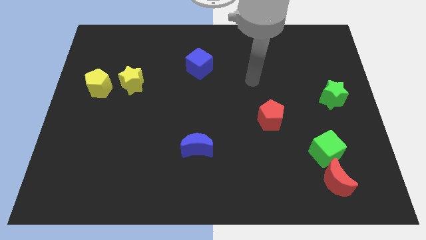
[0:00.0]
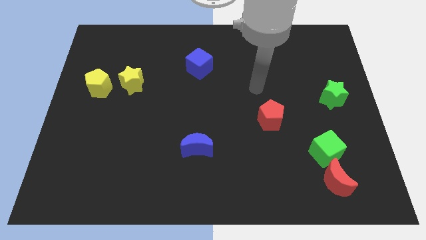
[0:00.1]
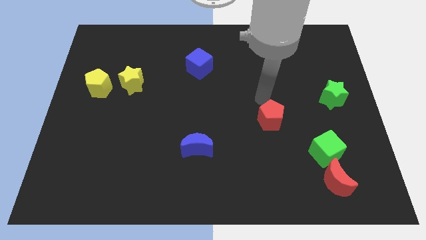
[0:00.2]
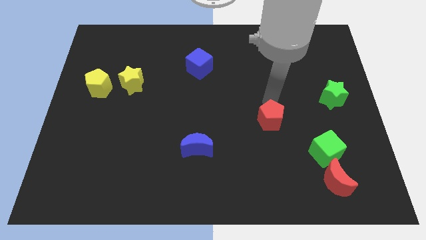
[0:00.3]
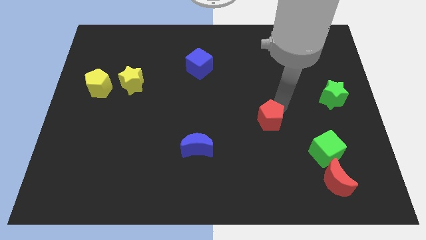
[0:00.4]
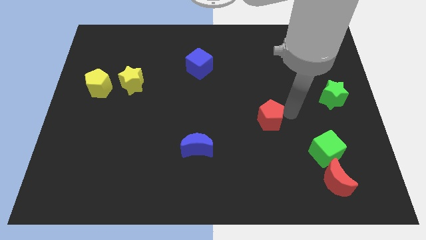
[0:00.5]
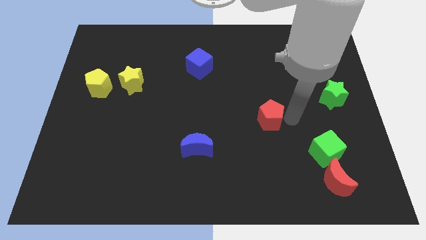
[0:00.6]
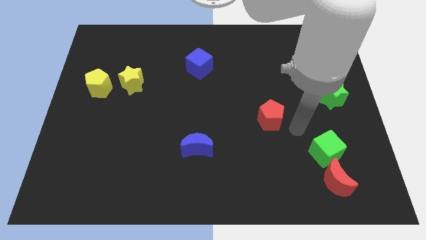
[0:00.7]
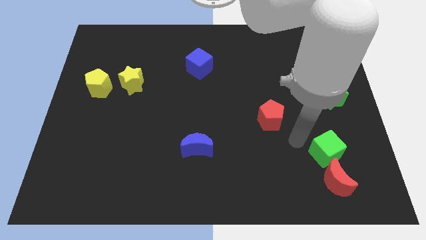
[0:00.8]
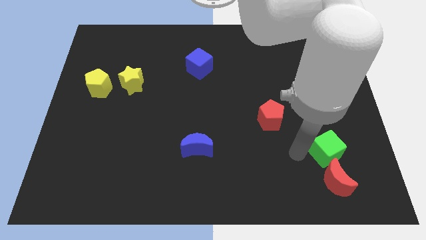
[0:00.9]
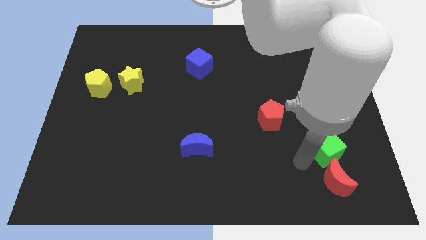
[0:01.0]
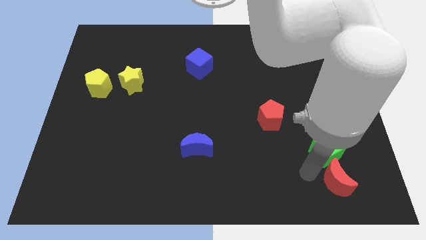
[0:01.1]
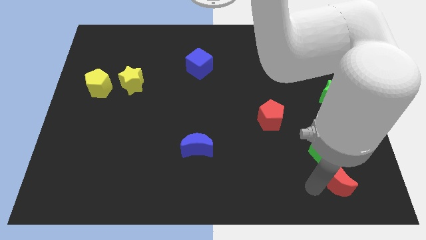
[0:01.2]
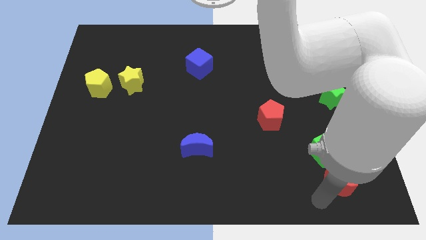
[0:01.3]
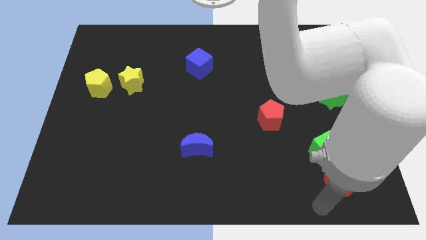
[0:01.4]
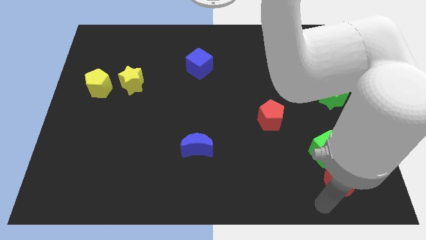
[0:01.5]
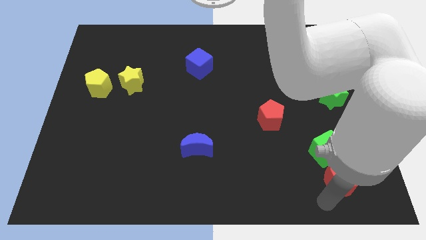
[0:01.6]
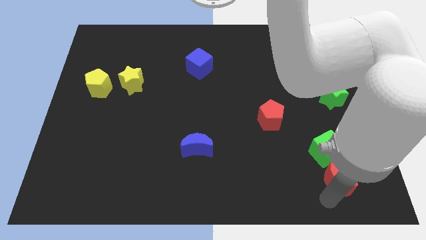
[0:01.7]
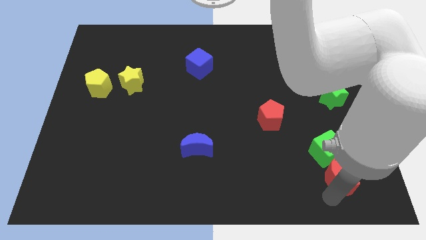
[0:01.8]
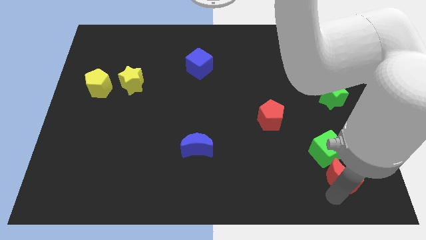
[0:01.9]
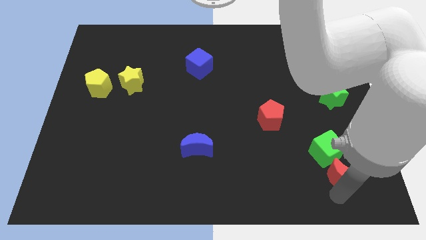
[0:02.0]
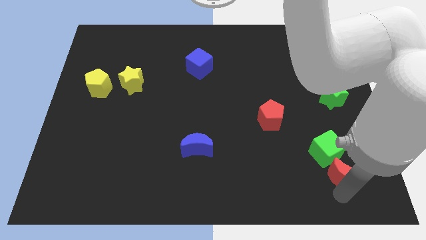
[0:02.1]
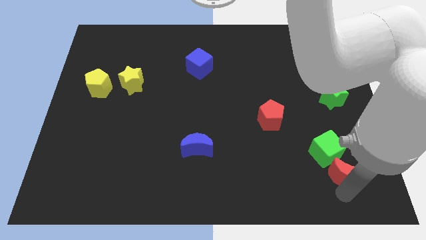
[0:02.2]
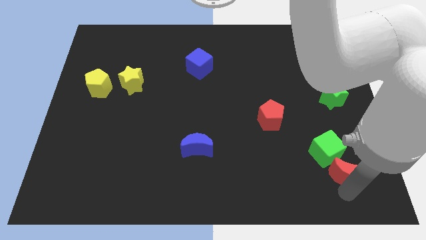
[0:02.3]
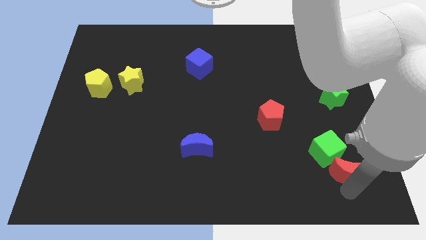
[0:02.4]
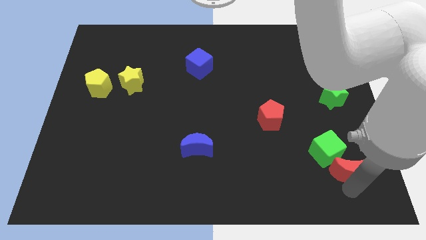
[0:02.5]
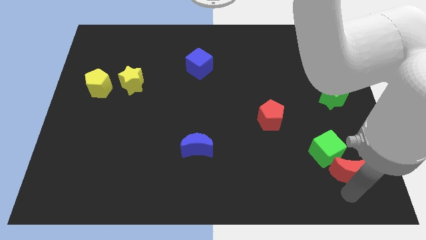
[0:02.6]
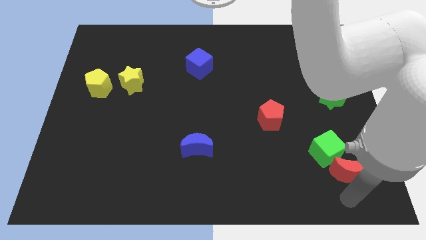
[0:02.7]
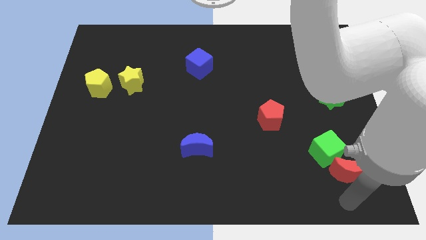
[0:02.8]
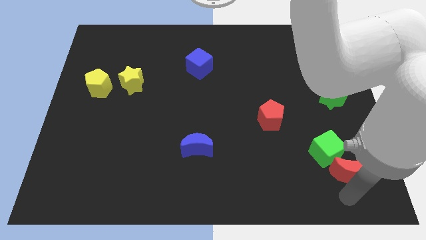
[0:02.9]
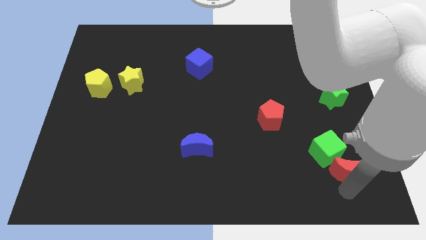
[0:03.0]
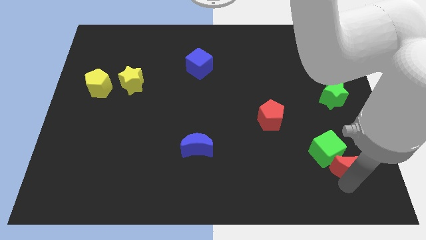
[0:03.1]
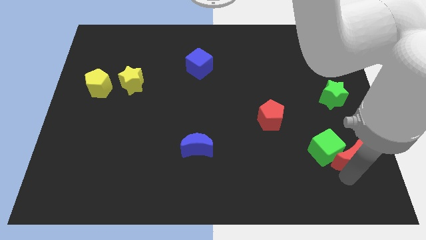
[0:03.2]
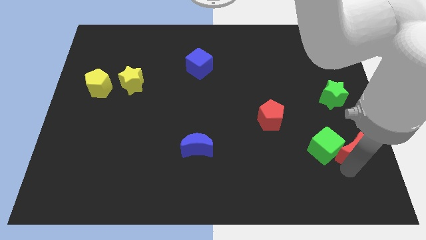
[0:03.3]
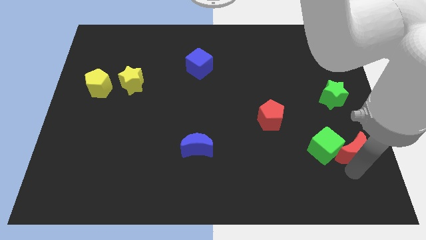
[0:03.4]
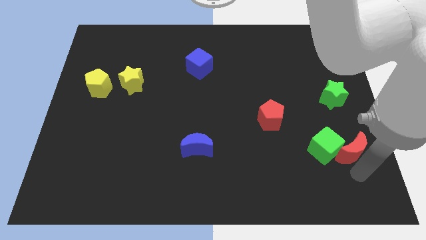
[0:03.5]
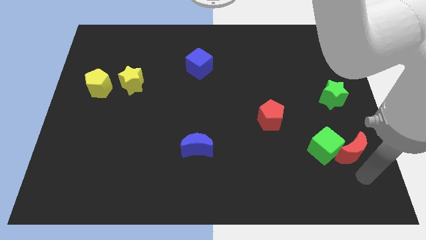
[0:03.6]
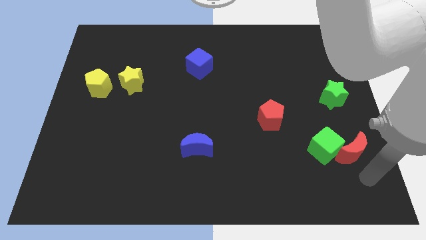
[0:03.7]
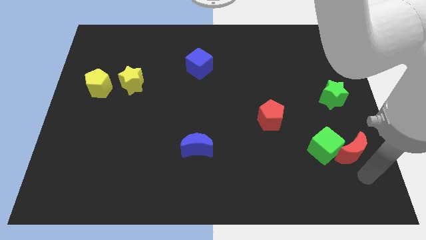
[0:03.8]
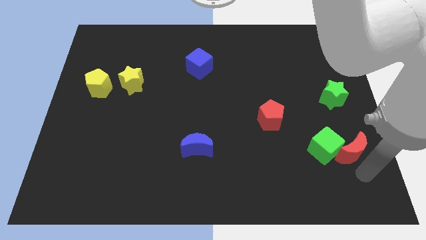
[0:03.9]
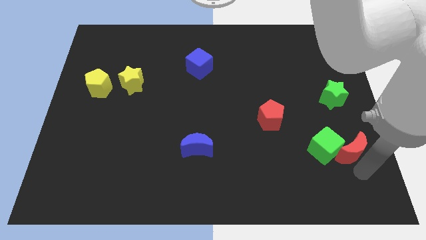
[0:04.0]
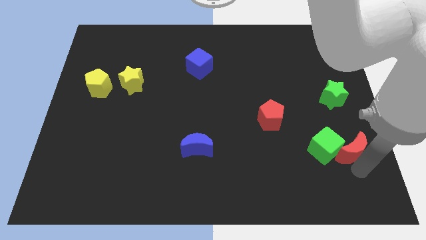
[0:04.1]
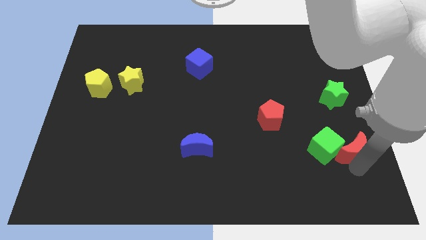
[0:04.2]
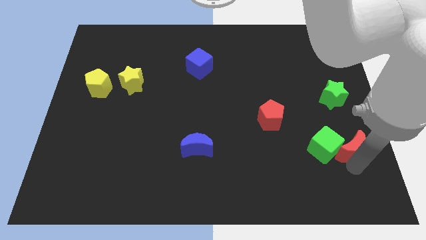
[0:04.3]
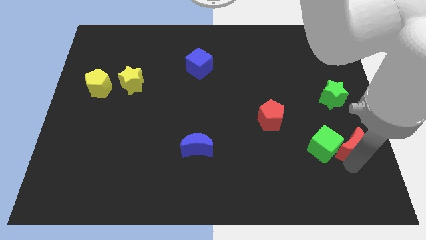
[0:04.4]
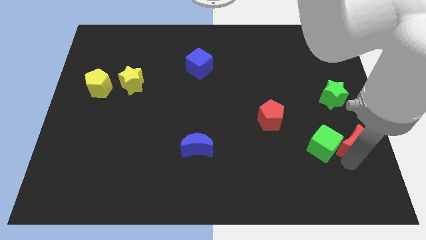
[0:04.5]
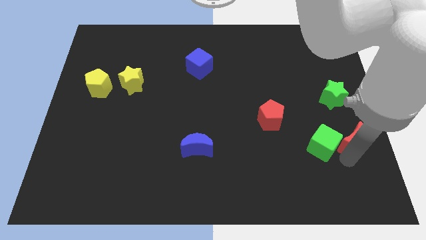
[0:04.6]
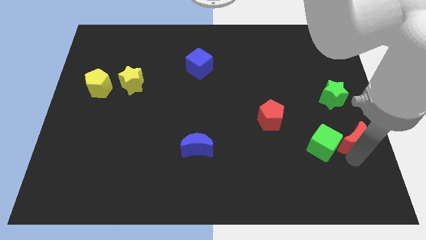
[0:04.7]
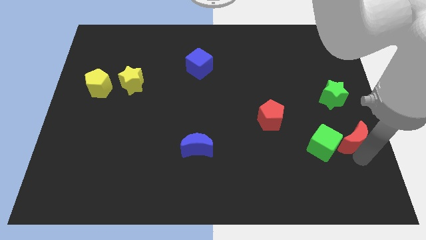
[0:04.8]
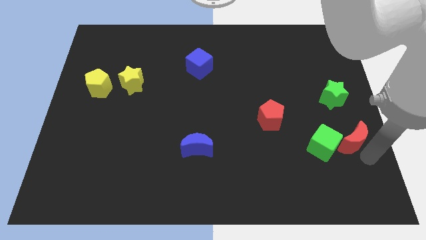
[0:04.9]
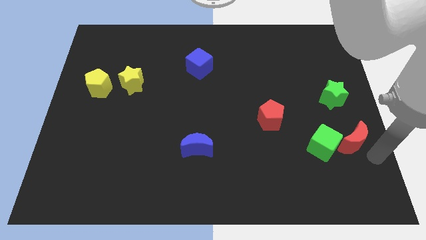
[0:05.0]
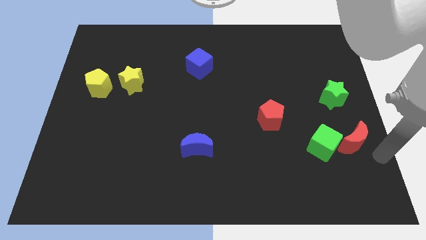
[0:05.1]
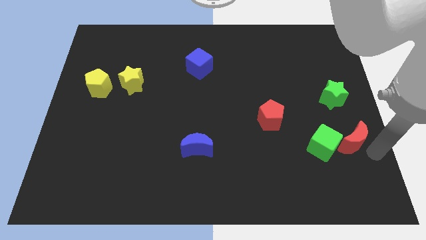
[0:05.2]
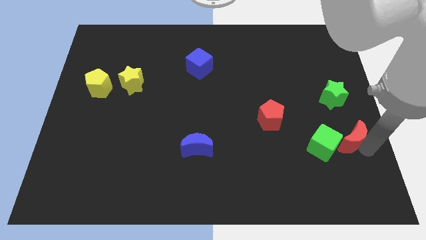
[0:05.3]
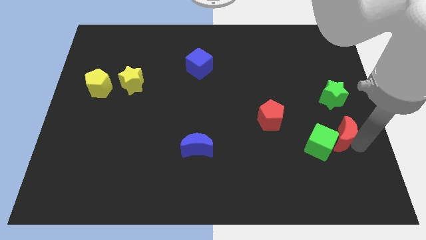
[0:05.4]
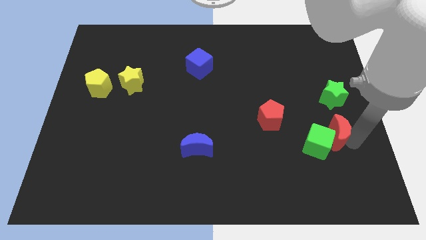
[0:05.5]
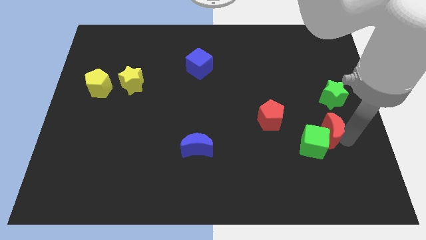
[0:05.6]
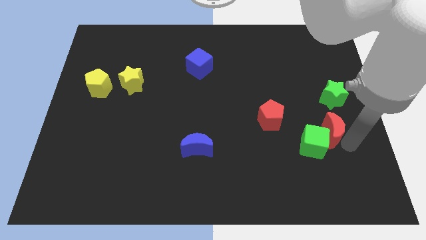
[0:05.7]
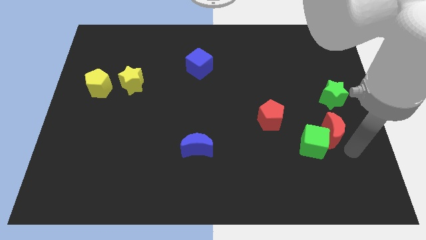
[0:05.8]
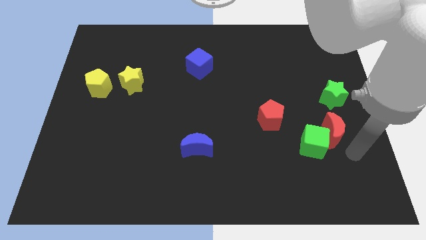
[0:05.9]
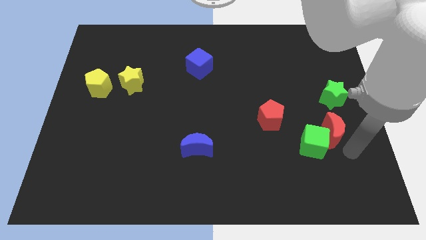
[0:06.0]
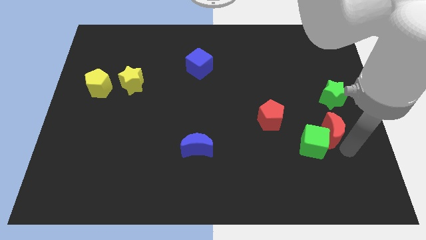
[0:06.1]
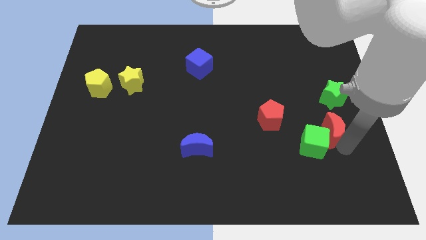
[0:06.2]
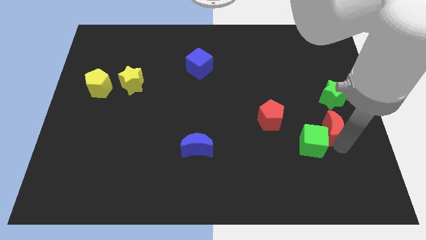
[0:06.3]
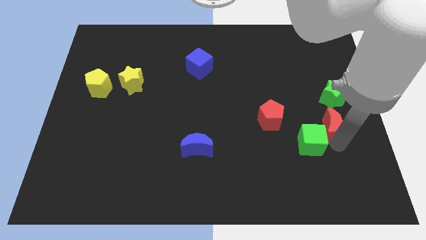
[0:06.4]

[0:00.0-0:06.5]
push the red moon to the bottom left of the green star
